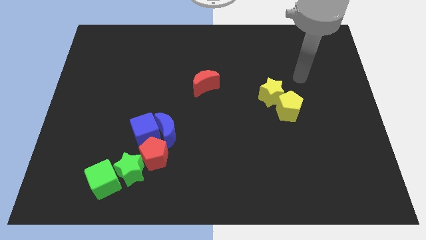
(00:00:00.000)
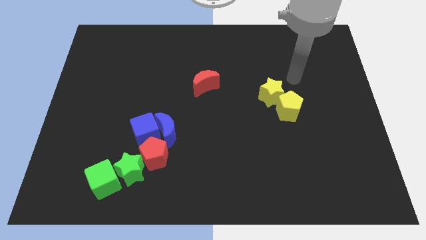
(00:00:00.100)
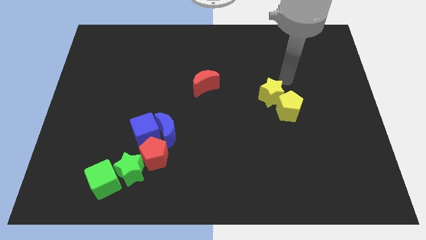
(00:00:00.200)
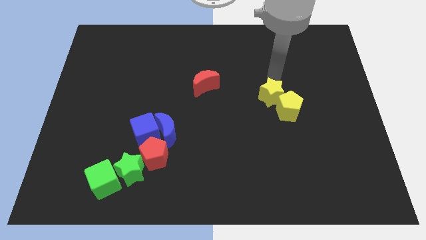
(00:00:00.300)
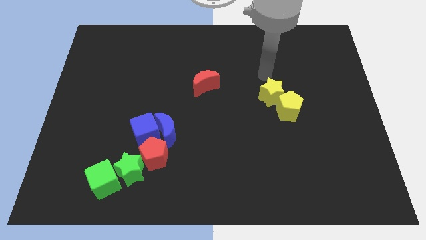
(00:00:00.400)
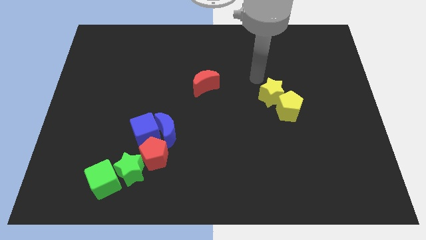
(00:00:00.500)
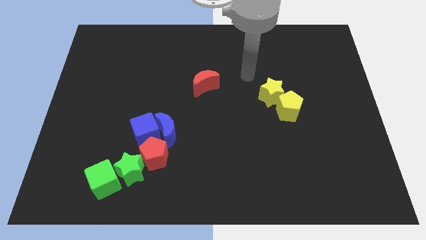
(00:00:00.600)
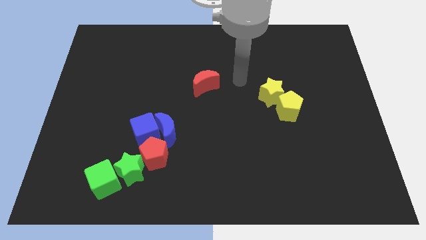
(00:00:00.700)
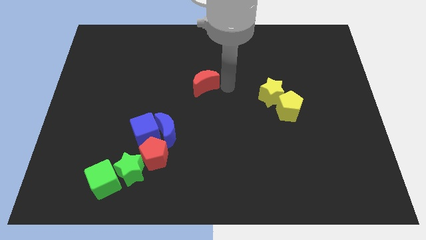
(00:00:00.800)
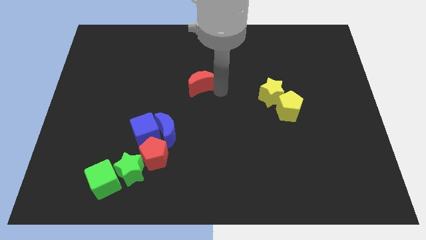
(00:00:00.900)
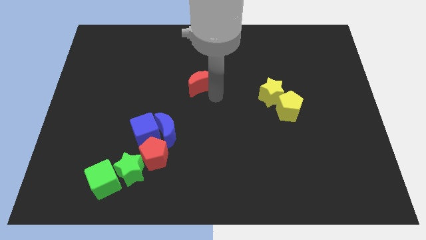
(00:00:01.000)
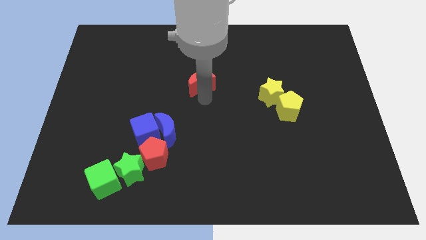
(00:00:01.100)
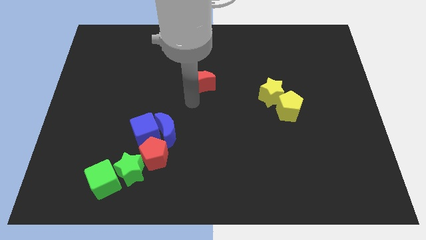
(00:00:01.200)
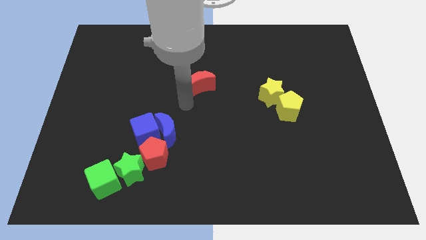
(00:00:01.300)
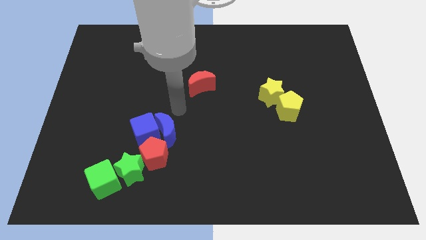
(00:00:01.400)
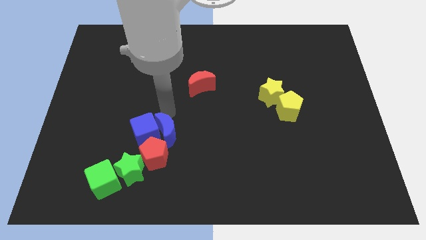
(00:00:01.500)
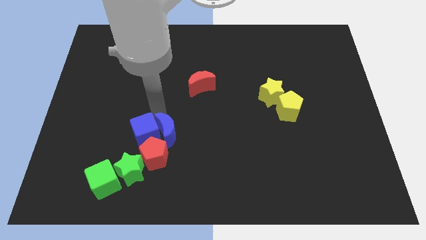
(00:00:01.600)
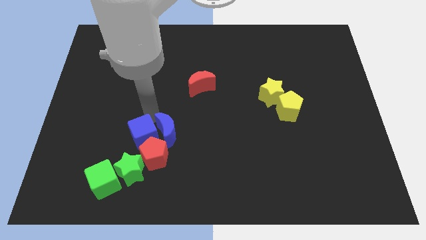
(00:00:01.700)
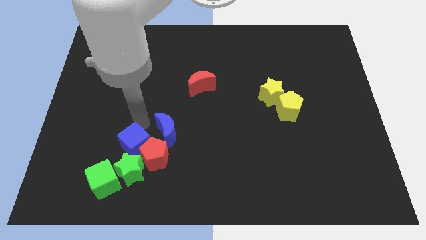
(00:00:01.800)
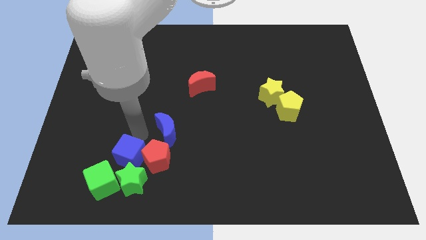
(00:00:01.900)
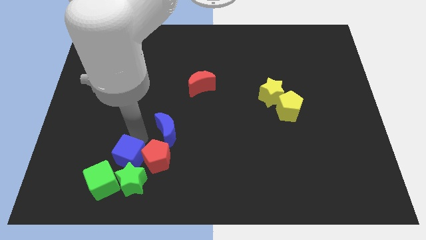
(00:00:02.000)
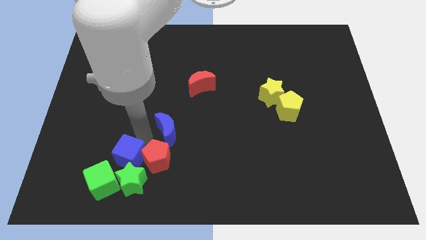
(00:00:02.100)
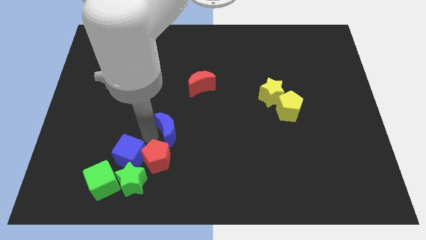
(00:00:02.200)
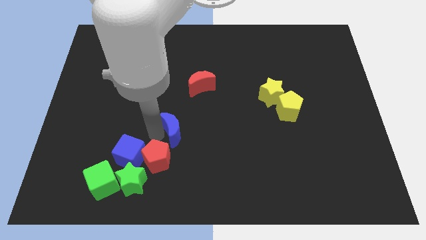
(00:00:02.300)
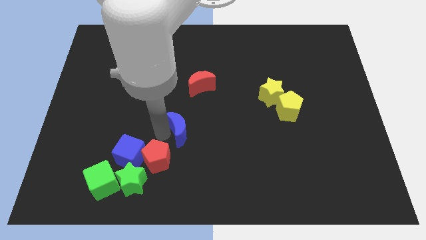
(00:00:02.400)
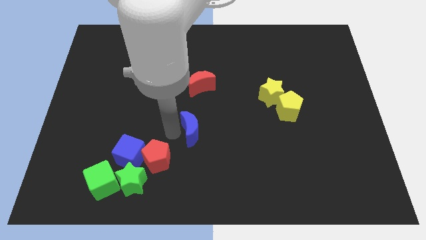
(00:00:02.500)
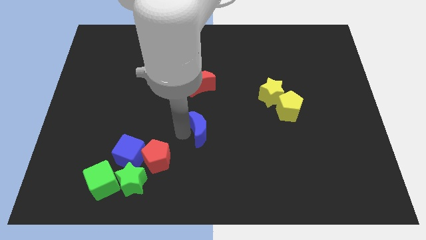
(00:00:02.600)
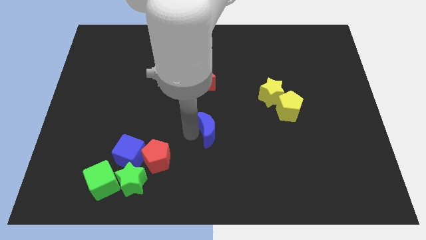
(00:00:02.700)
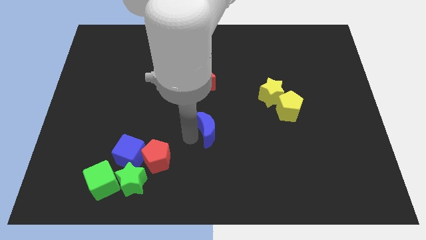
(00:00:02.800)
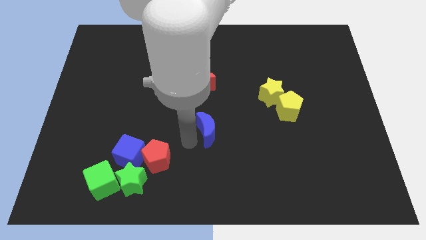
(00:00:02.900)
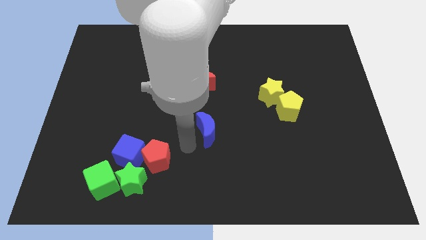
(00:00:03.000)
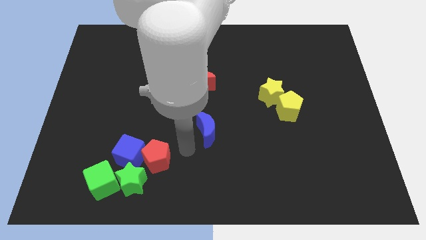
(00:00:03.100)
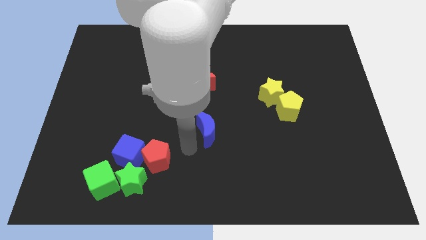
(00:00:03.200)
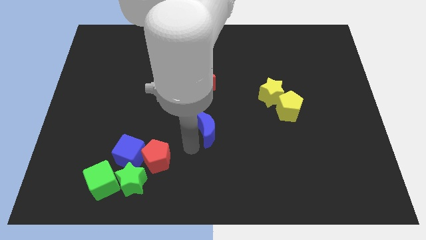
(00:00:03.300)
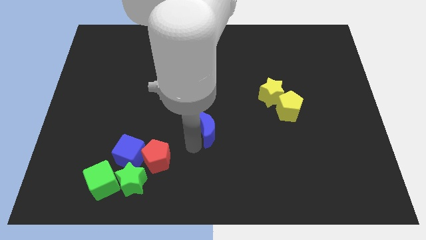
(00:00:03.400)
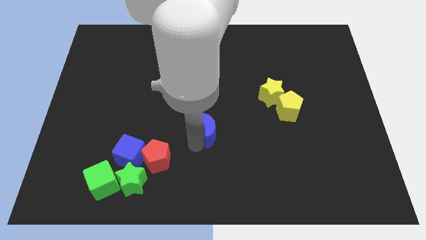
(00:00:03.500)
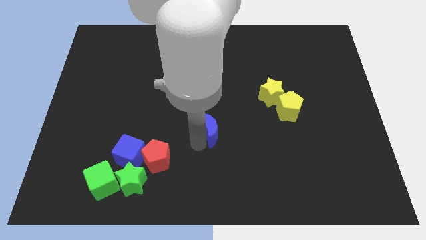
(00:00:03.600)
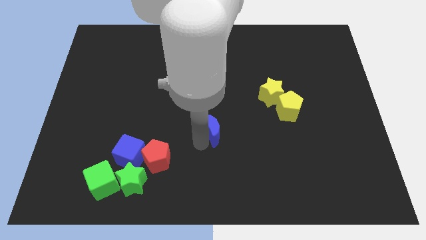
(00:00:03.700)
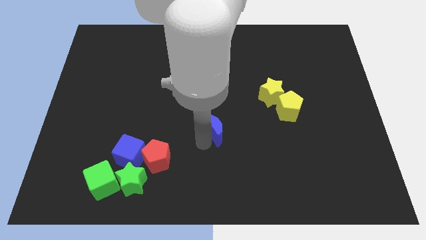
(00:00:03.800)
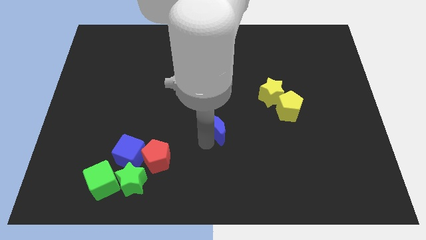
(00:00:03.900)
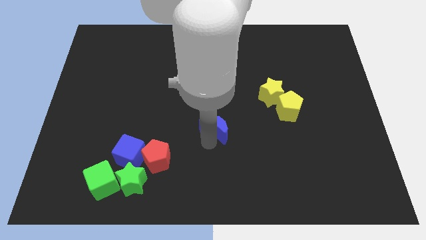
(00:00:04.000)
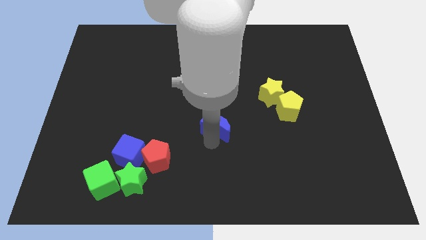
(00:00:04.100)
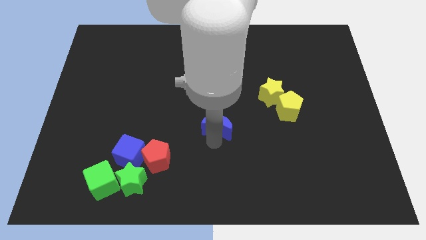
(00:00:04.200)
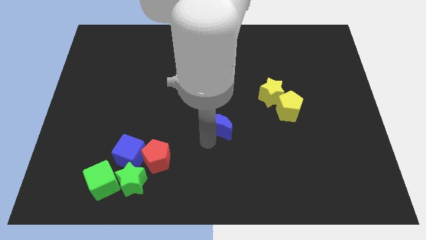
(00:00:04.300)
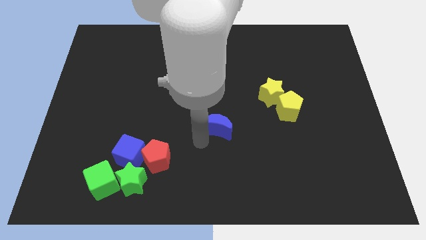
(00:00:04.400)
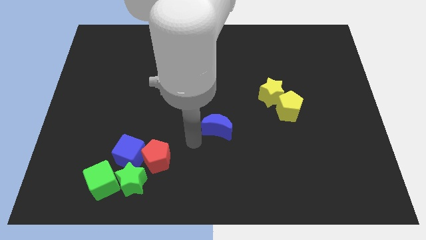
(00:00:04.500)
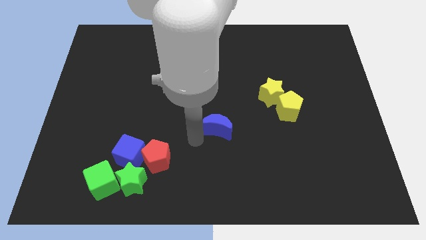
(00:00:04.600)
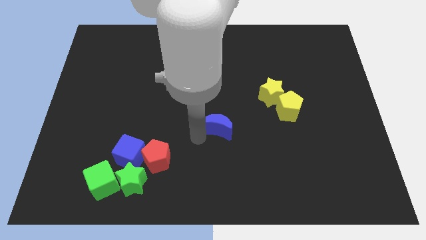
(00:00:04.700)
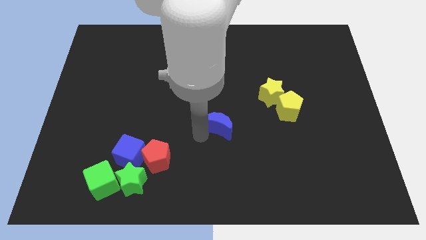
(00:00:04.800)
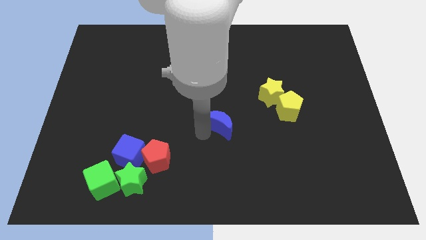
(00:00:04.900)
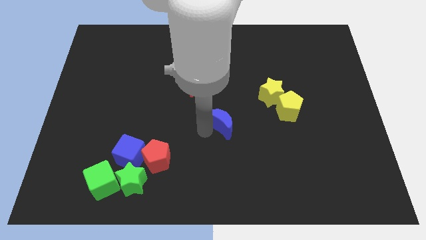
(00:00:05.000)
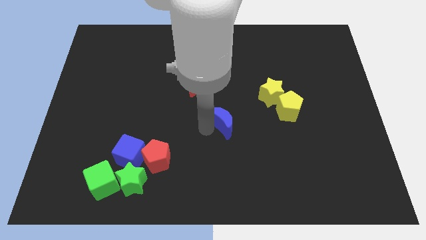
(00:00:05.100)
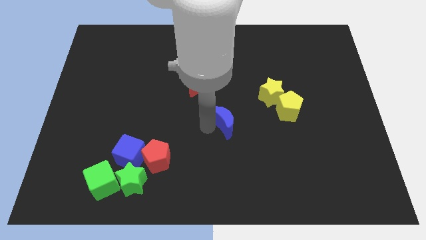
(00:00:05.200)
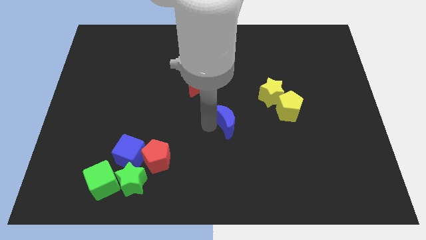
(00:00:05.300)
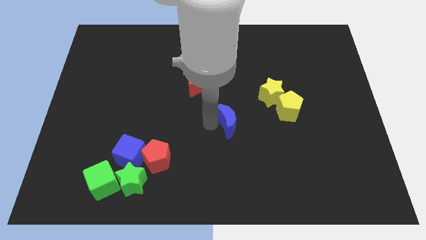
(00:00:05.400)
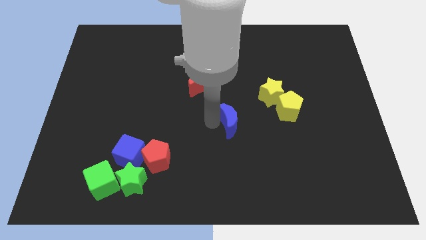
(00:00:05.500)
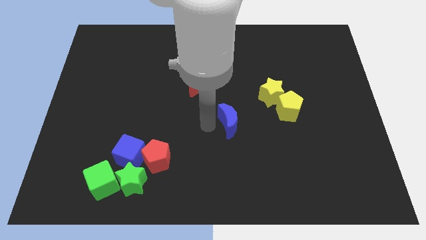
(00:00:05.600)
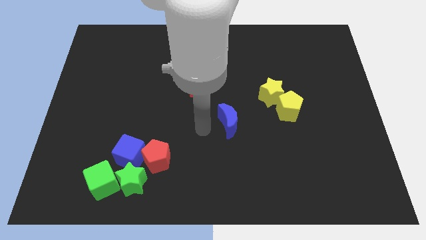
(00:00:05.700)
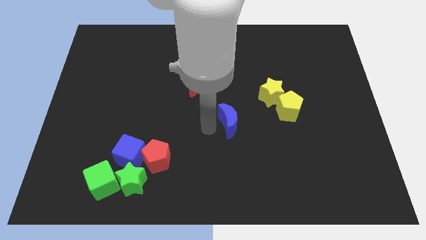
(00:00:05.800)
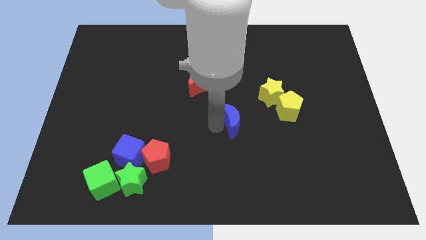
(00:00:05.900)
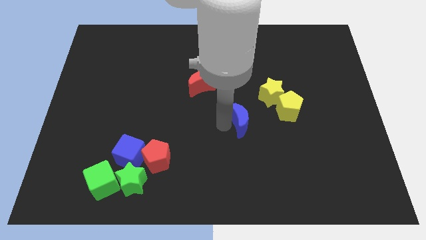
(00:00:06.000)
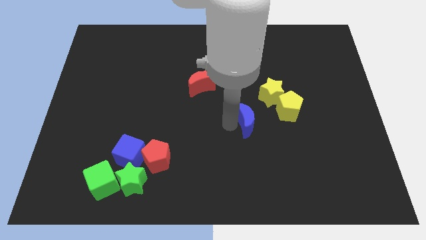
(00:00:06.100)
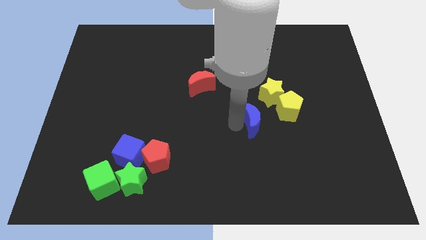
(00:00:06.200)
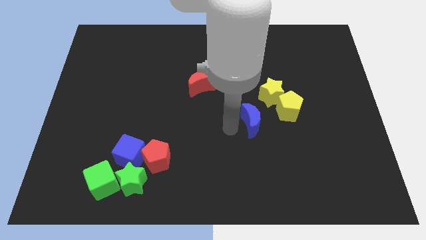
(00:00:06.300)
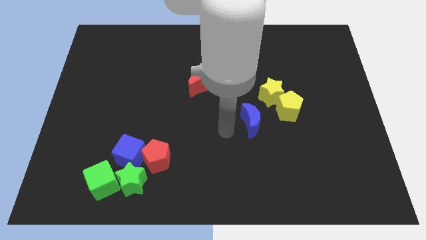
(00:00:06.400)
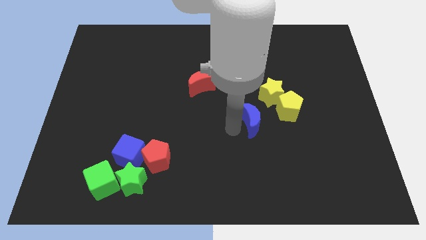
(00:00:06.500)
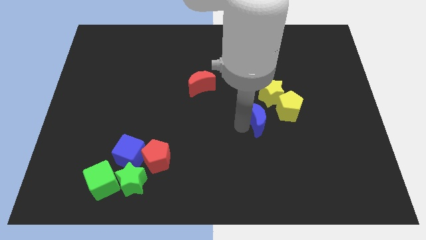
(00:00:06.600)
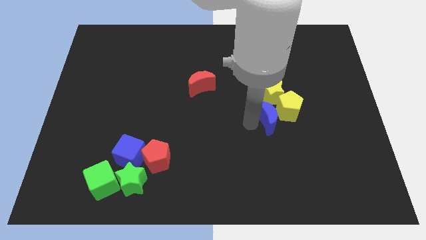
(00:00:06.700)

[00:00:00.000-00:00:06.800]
put the blue moon to the yellow pentagon

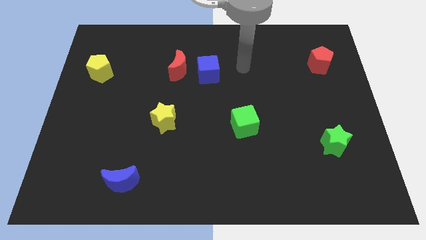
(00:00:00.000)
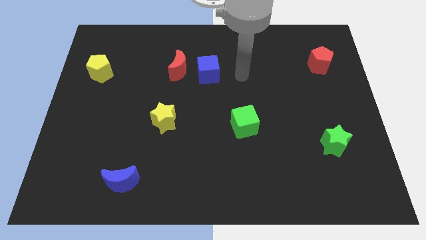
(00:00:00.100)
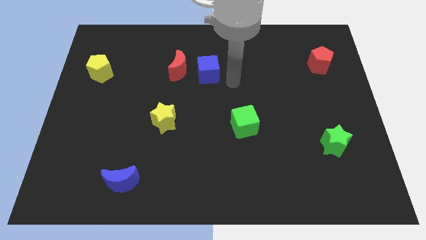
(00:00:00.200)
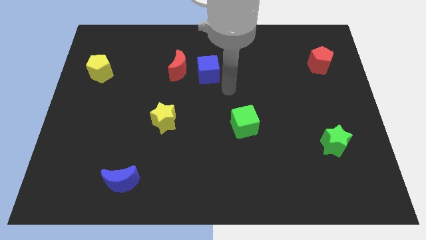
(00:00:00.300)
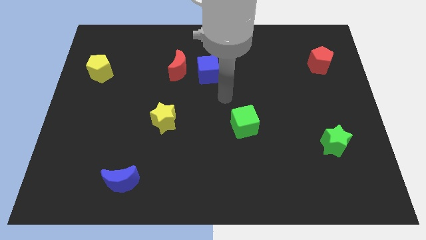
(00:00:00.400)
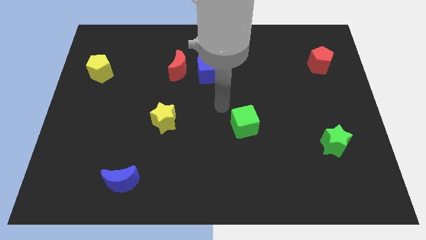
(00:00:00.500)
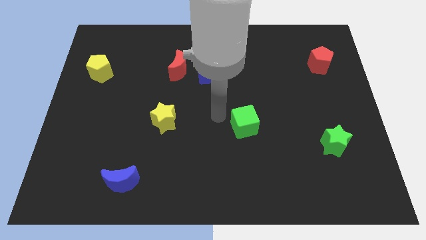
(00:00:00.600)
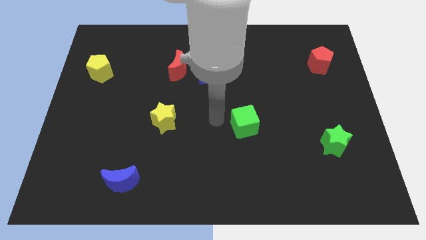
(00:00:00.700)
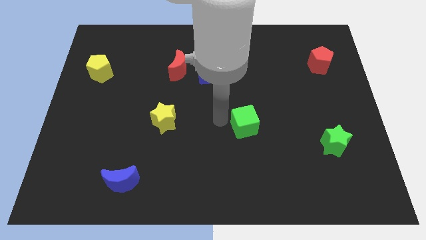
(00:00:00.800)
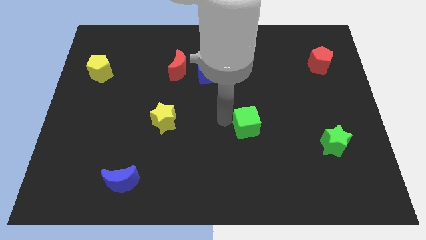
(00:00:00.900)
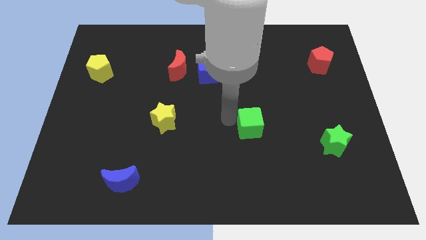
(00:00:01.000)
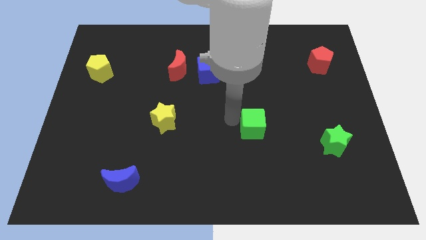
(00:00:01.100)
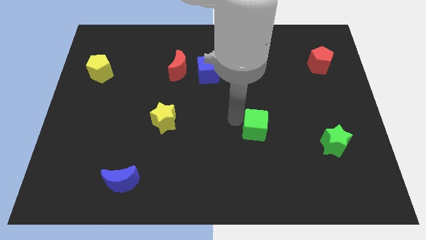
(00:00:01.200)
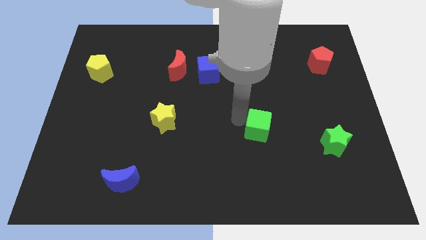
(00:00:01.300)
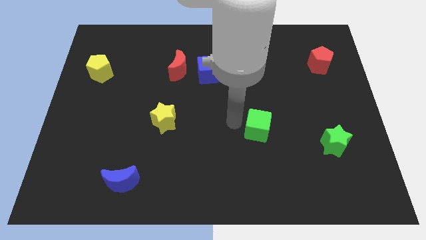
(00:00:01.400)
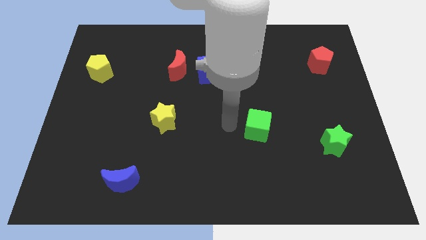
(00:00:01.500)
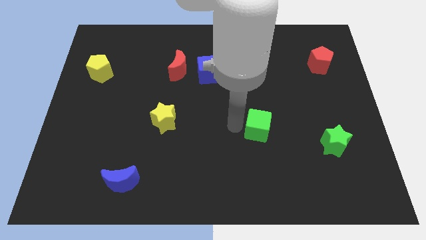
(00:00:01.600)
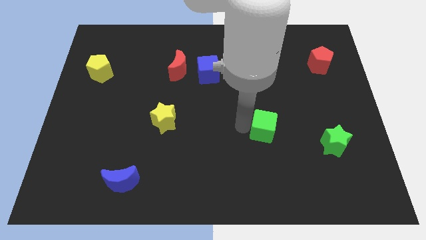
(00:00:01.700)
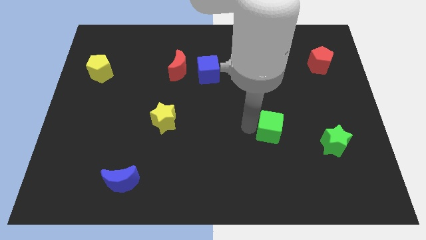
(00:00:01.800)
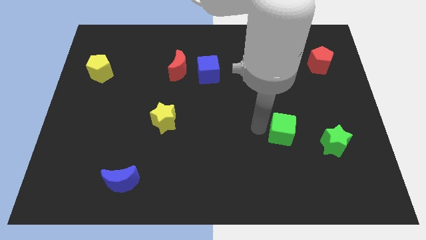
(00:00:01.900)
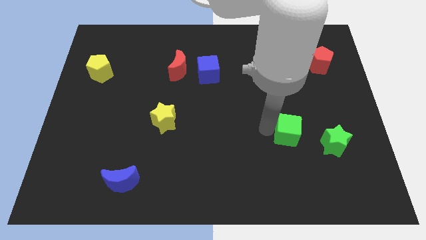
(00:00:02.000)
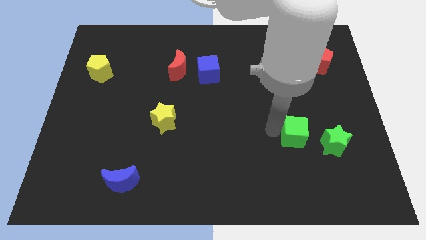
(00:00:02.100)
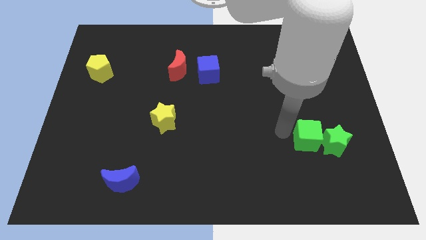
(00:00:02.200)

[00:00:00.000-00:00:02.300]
put the green cube to the green star
